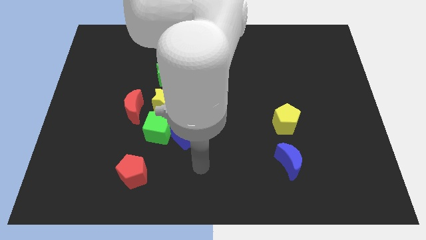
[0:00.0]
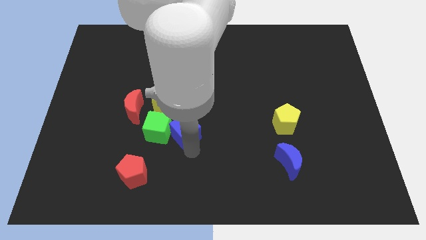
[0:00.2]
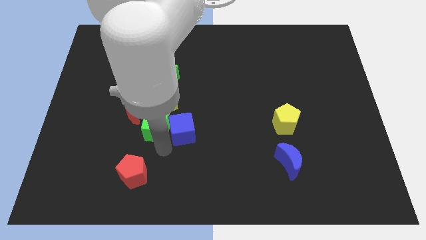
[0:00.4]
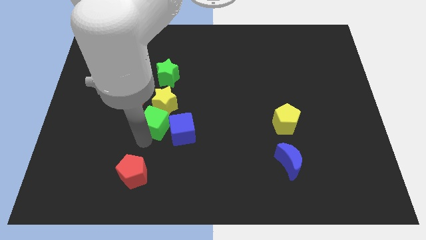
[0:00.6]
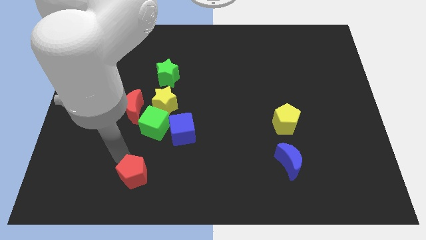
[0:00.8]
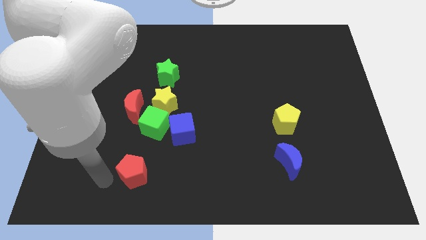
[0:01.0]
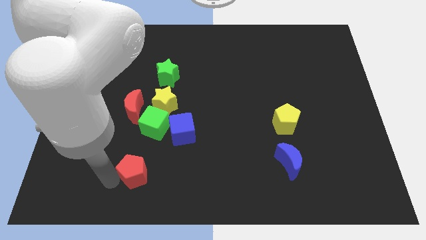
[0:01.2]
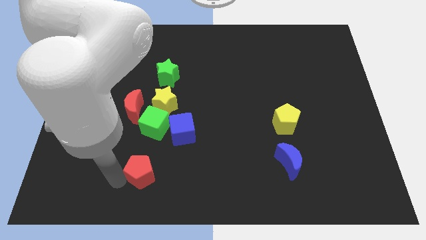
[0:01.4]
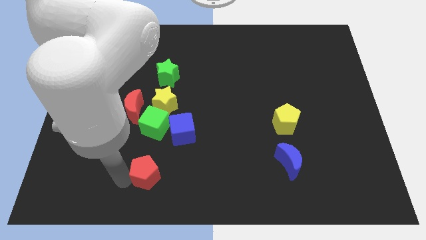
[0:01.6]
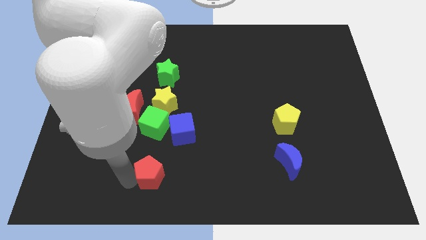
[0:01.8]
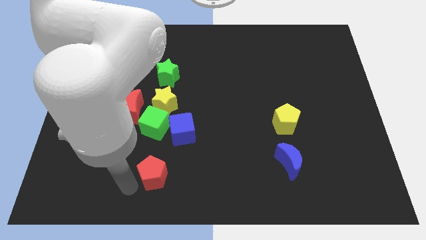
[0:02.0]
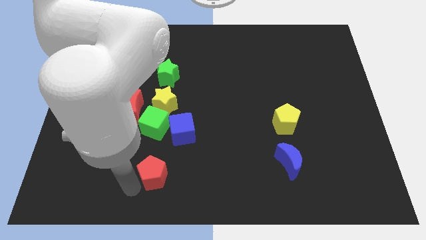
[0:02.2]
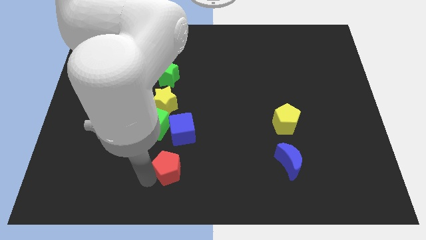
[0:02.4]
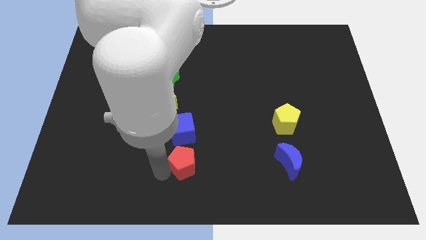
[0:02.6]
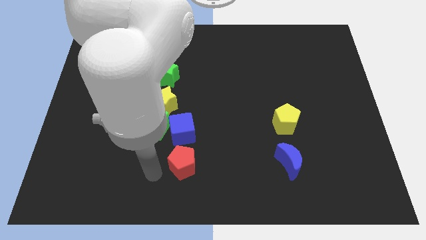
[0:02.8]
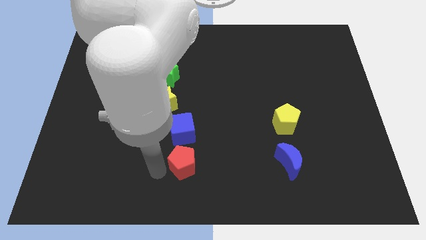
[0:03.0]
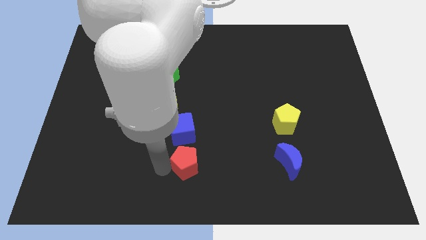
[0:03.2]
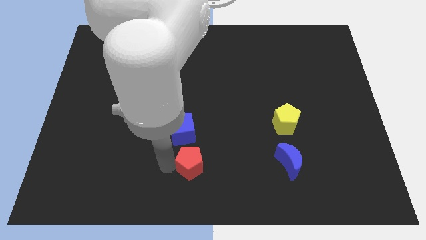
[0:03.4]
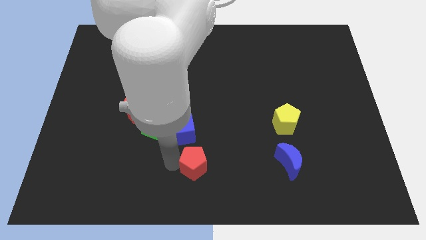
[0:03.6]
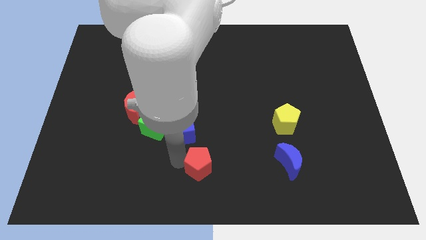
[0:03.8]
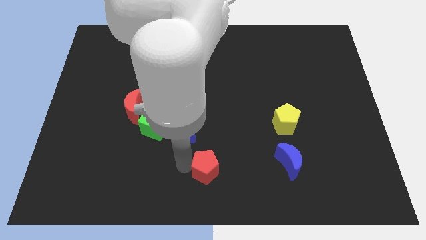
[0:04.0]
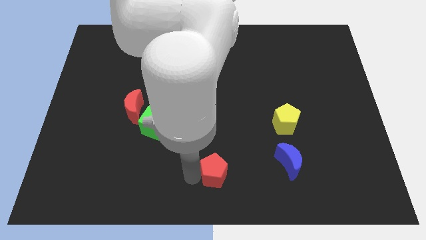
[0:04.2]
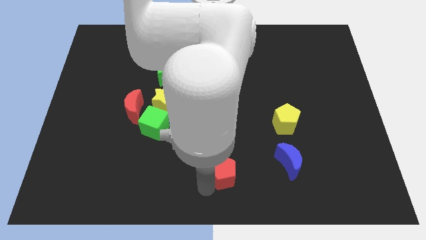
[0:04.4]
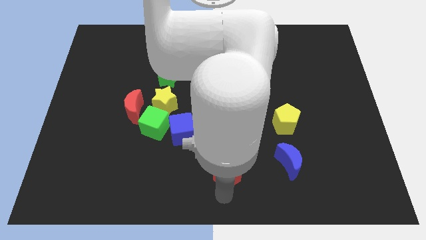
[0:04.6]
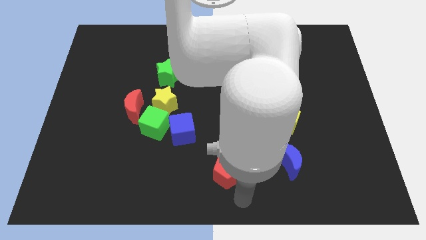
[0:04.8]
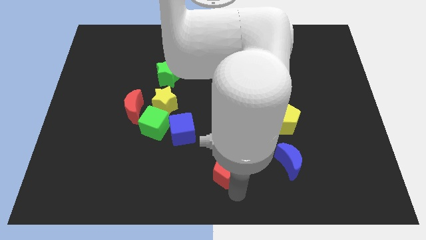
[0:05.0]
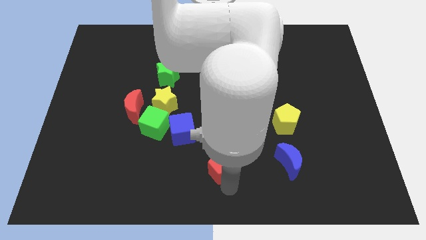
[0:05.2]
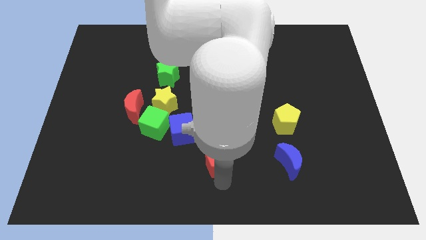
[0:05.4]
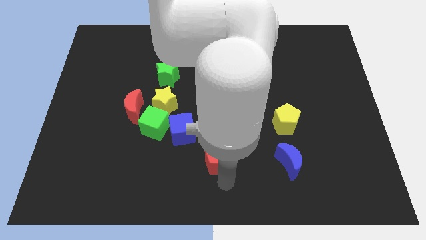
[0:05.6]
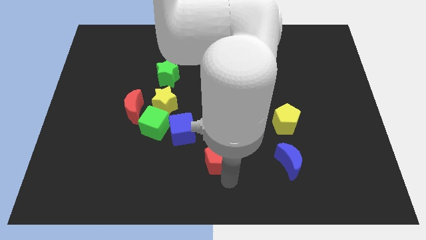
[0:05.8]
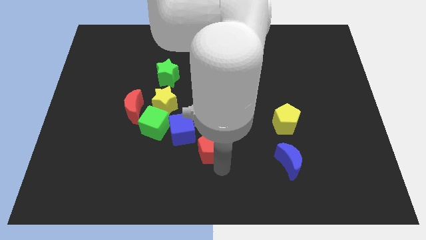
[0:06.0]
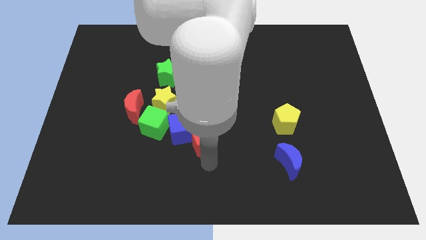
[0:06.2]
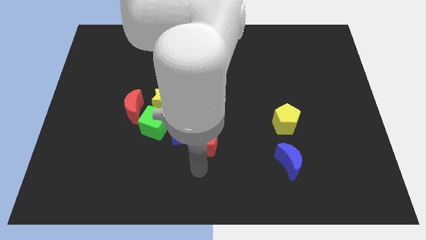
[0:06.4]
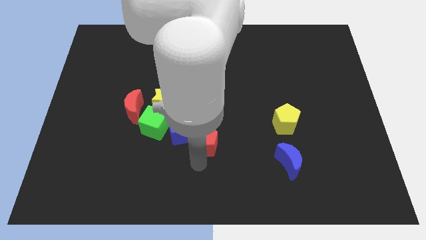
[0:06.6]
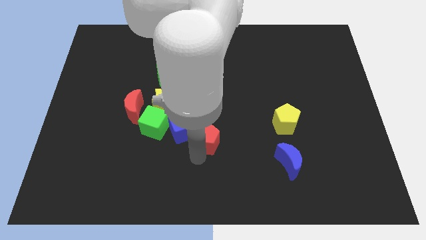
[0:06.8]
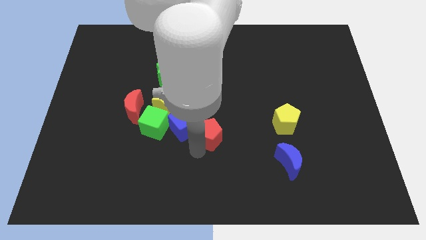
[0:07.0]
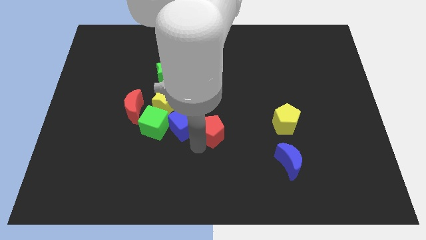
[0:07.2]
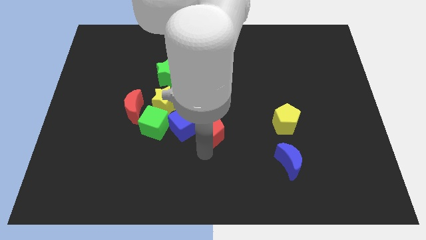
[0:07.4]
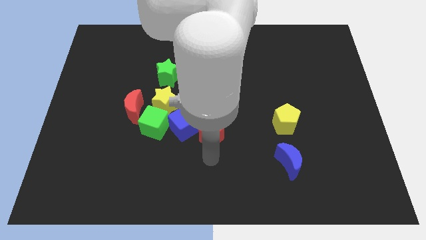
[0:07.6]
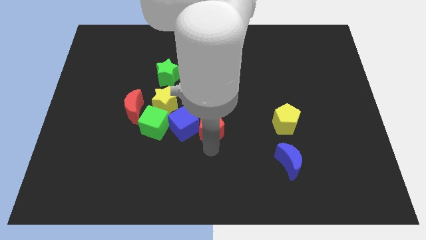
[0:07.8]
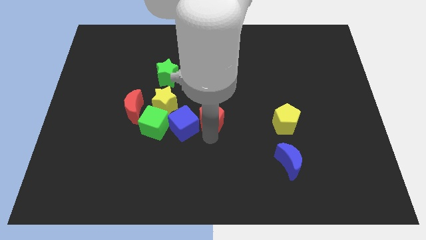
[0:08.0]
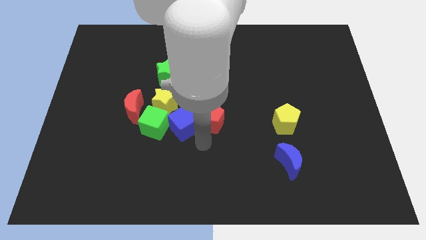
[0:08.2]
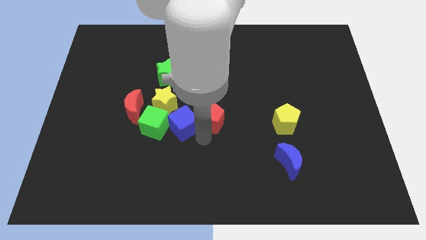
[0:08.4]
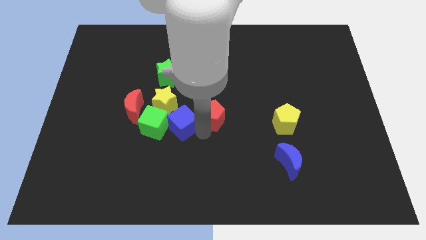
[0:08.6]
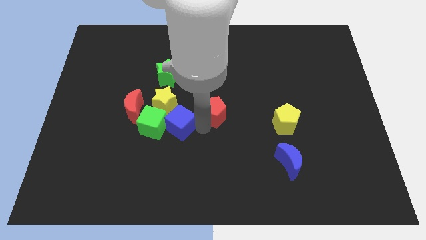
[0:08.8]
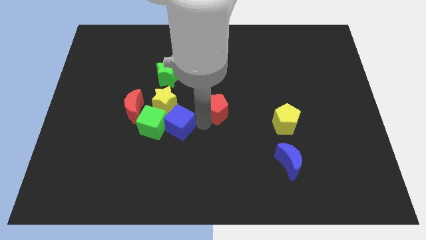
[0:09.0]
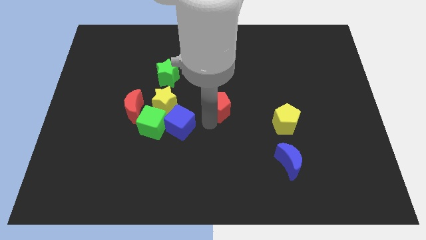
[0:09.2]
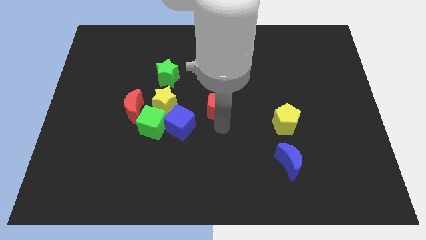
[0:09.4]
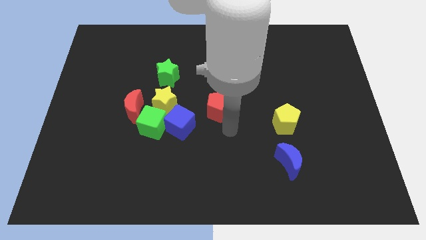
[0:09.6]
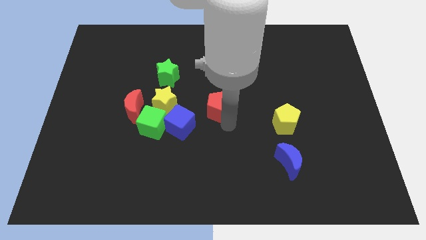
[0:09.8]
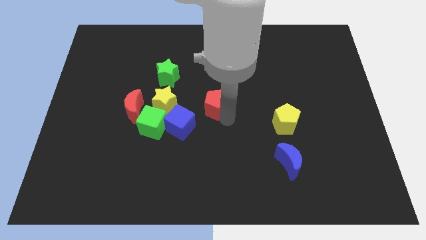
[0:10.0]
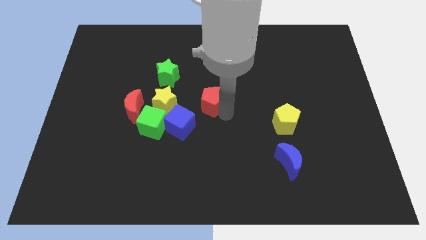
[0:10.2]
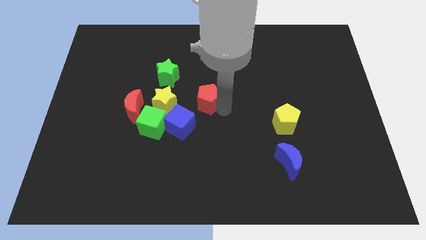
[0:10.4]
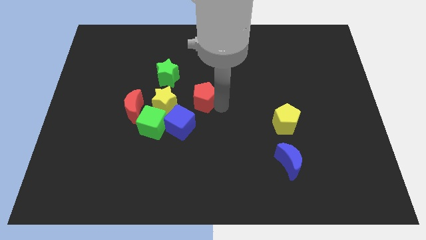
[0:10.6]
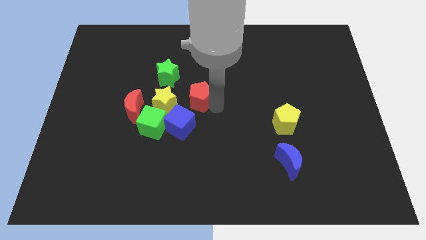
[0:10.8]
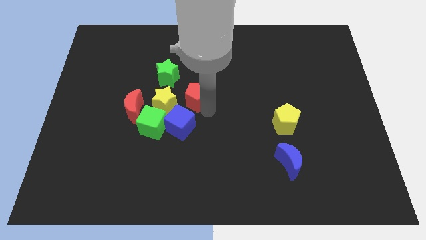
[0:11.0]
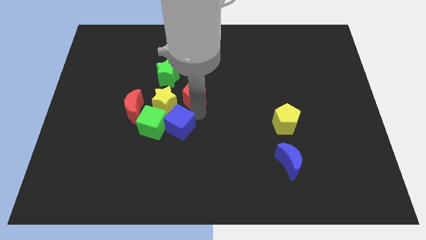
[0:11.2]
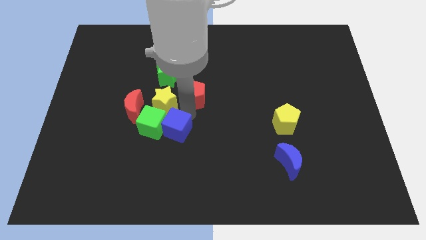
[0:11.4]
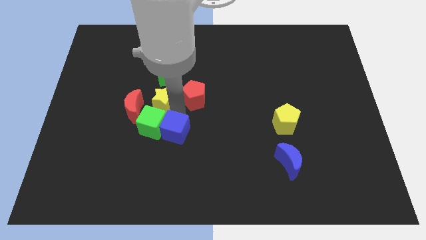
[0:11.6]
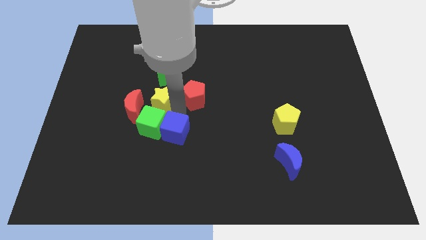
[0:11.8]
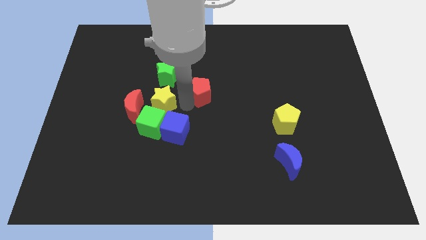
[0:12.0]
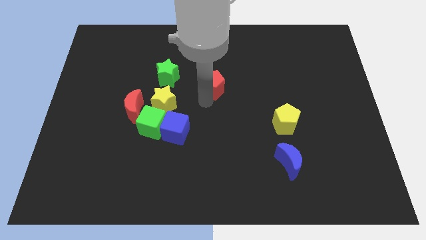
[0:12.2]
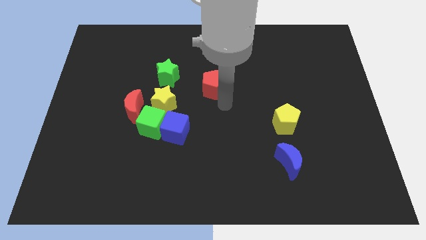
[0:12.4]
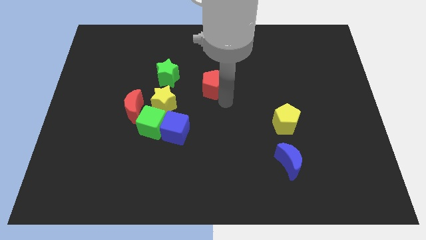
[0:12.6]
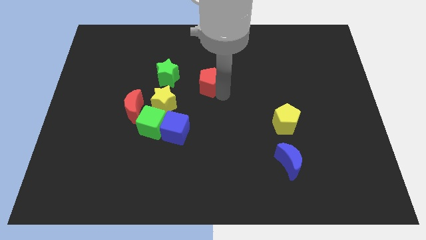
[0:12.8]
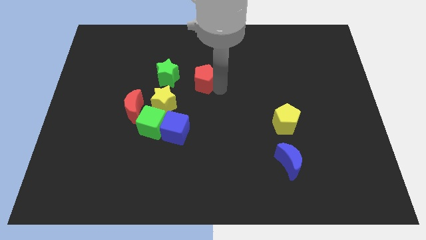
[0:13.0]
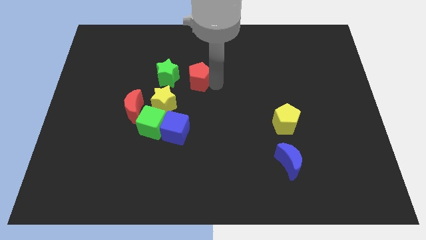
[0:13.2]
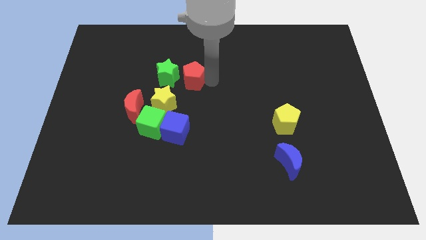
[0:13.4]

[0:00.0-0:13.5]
put the red pentagon to the top right of the green star
